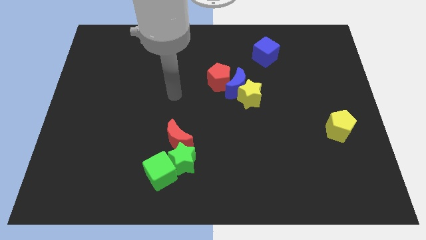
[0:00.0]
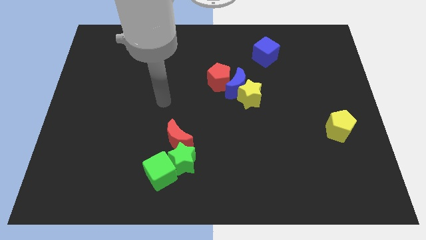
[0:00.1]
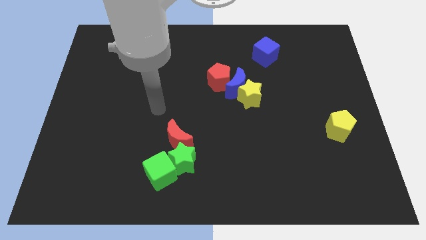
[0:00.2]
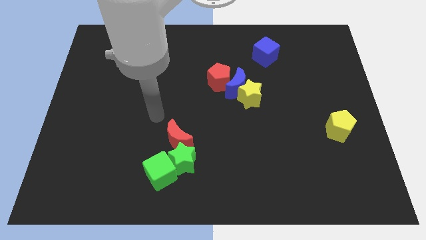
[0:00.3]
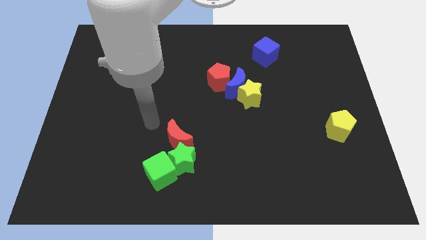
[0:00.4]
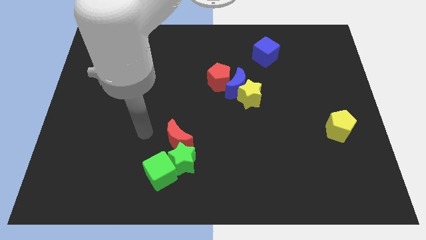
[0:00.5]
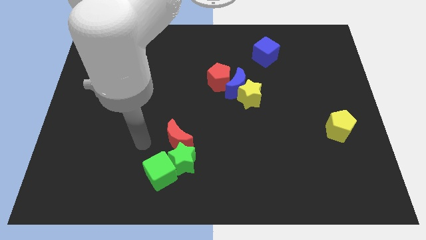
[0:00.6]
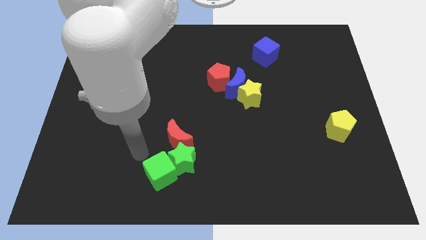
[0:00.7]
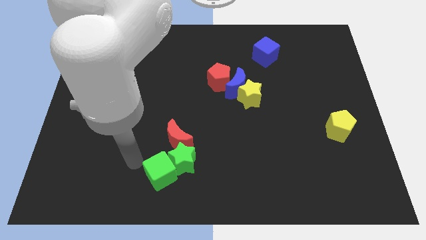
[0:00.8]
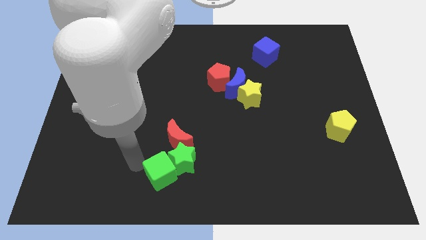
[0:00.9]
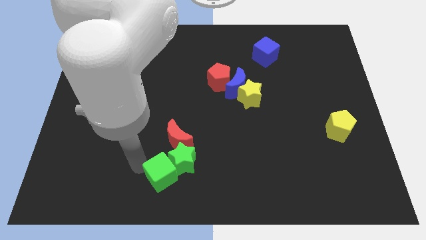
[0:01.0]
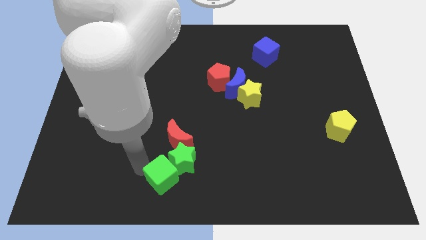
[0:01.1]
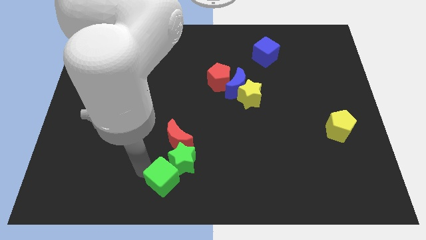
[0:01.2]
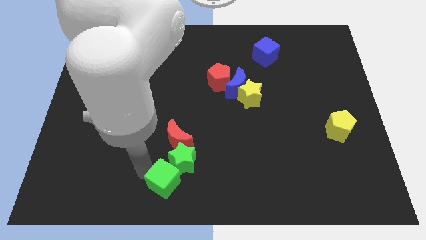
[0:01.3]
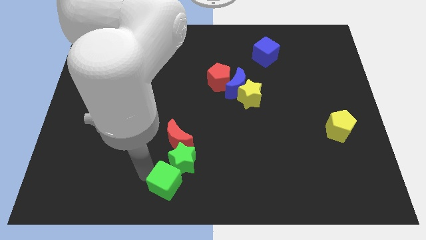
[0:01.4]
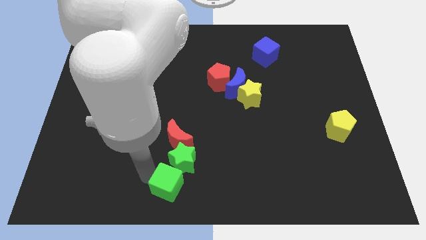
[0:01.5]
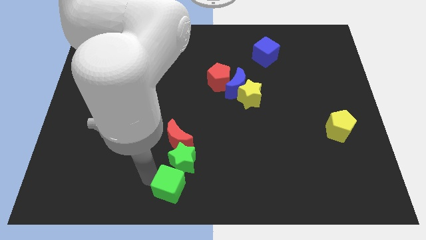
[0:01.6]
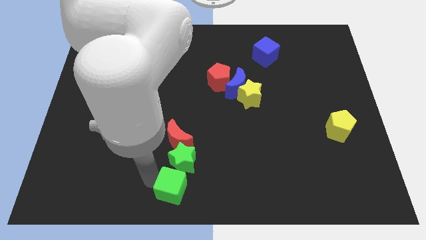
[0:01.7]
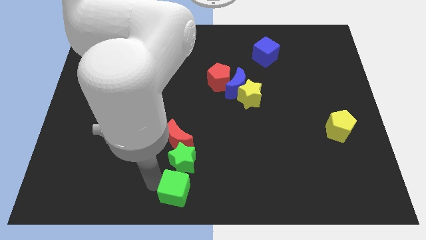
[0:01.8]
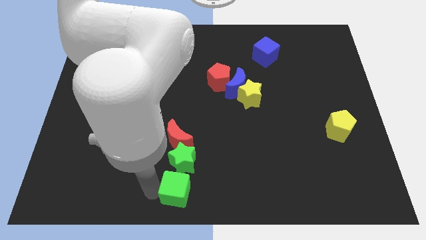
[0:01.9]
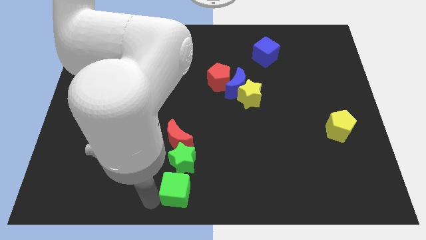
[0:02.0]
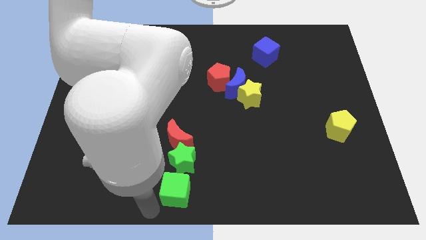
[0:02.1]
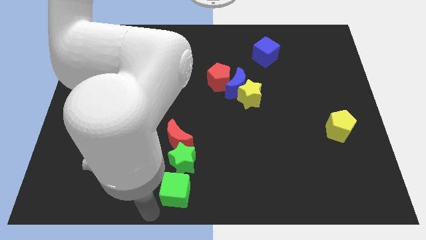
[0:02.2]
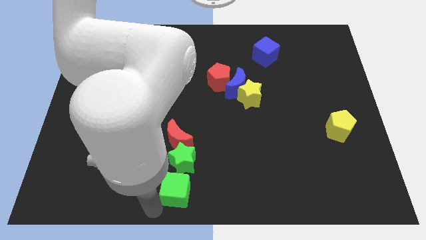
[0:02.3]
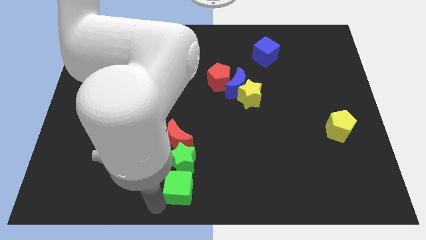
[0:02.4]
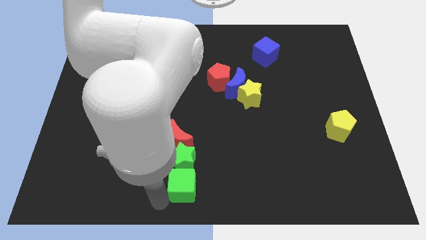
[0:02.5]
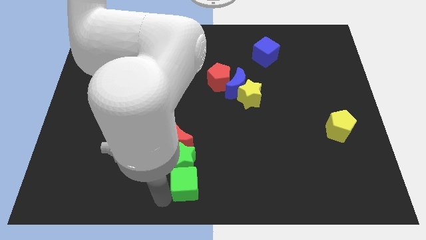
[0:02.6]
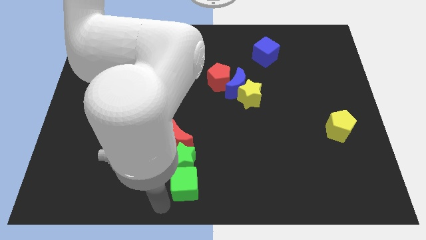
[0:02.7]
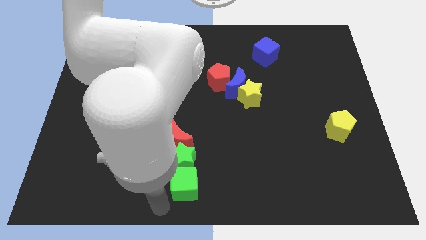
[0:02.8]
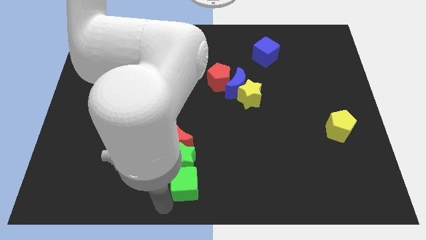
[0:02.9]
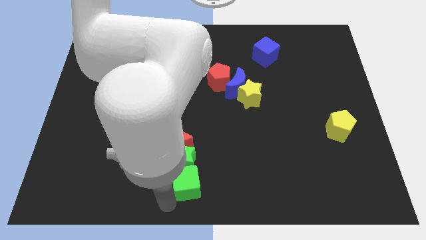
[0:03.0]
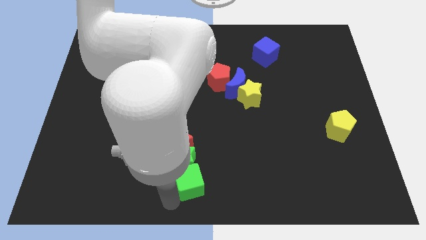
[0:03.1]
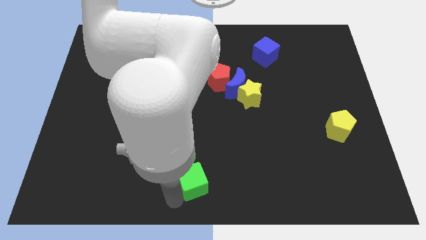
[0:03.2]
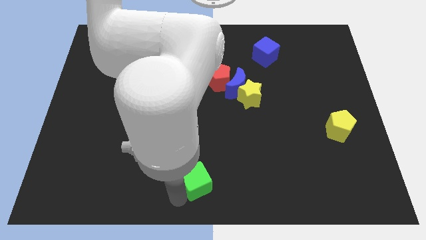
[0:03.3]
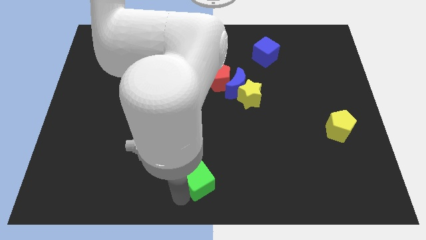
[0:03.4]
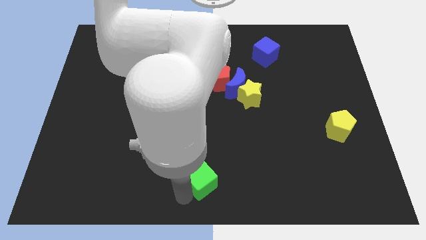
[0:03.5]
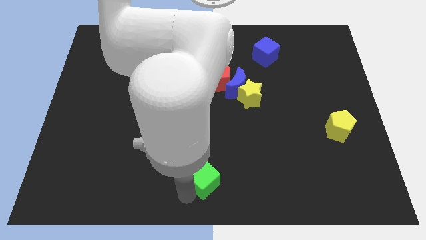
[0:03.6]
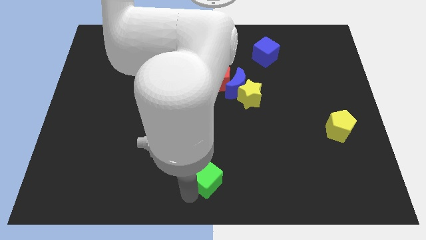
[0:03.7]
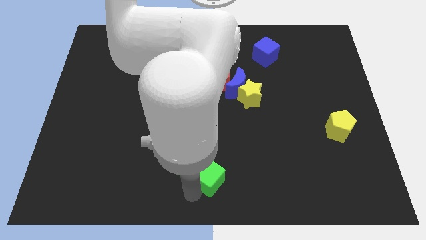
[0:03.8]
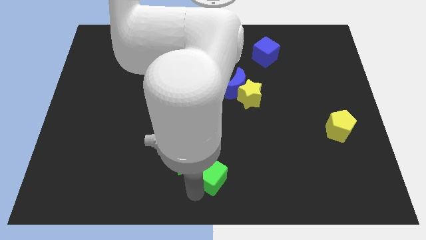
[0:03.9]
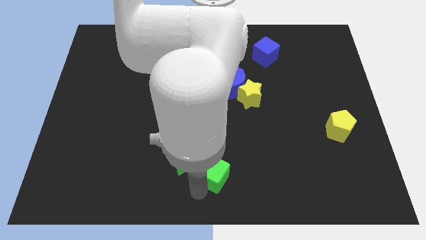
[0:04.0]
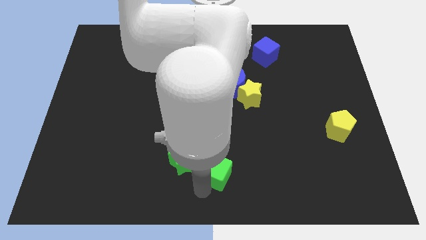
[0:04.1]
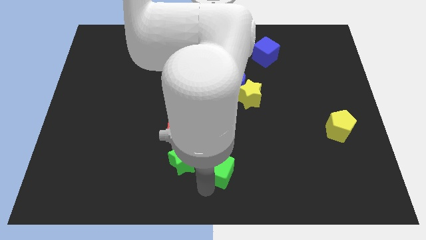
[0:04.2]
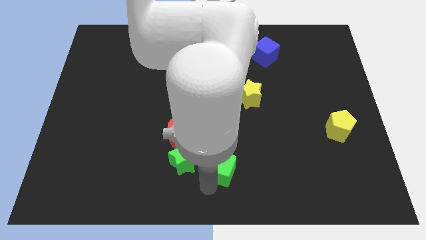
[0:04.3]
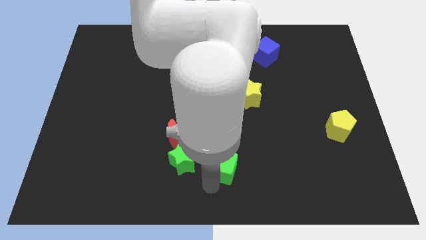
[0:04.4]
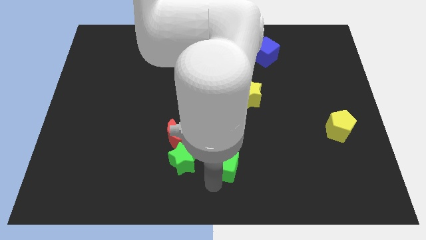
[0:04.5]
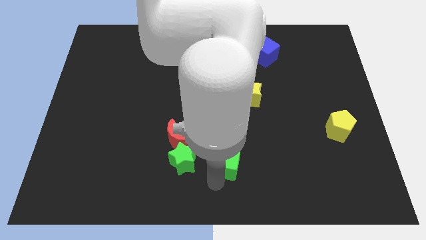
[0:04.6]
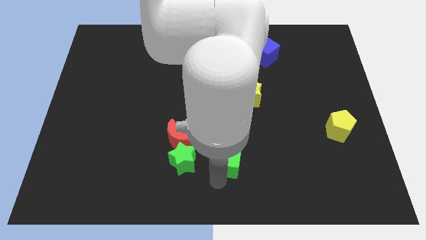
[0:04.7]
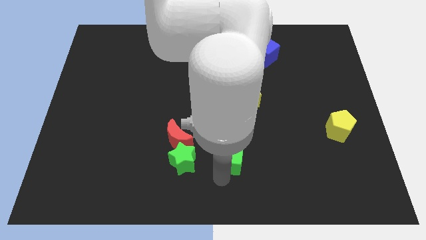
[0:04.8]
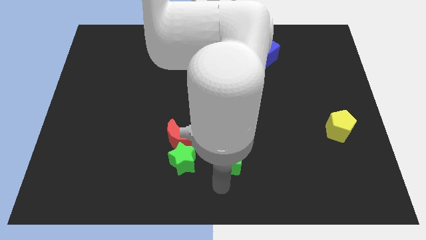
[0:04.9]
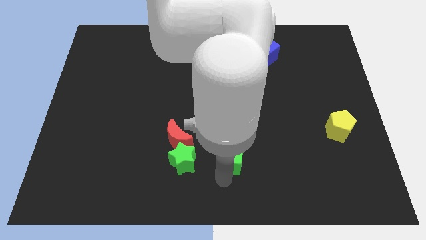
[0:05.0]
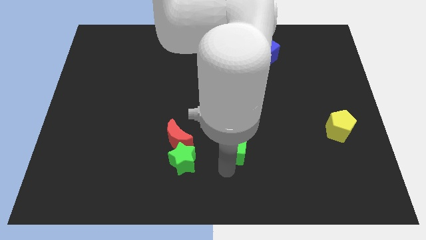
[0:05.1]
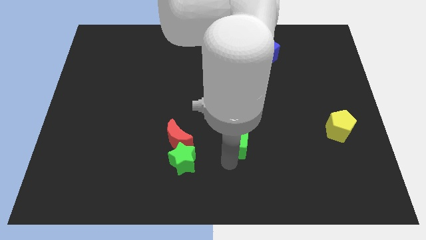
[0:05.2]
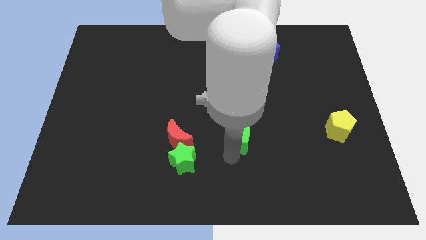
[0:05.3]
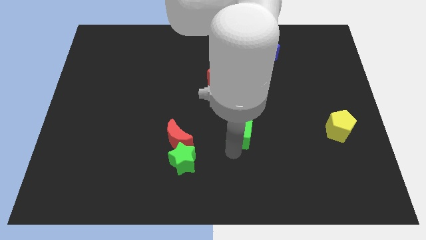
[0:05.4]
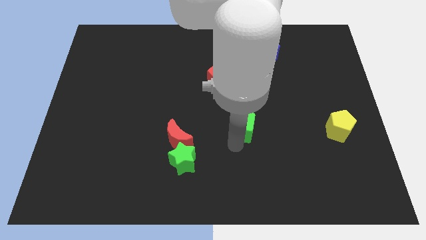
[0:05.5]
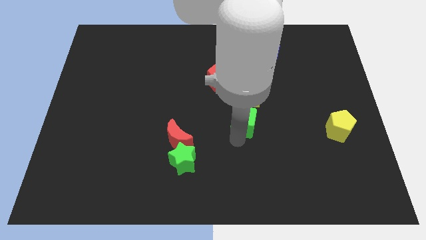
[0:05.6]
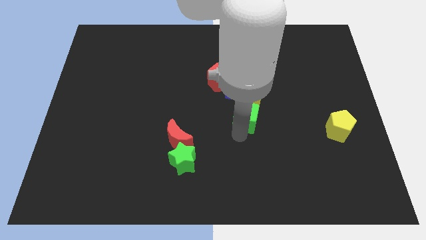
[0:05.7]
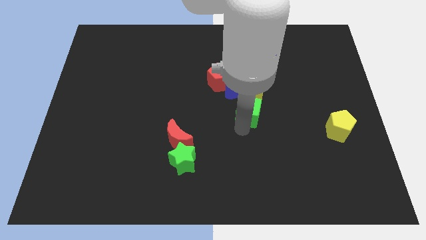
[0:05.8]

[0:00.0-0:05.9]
move the green cube close to the yellow star

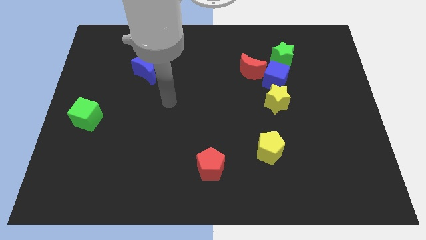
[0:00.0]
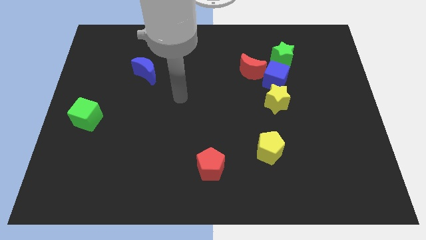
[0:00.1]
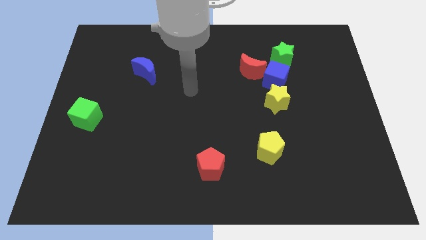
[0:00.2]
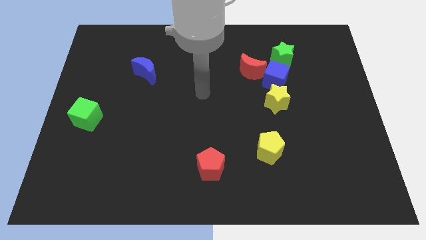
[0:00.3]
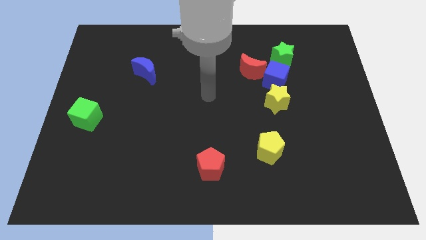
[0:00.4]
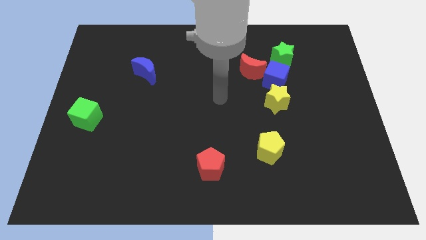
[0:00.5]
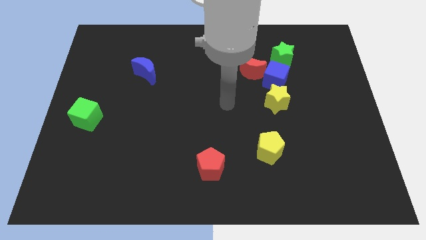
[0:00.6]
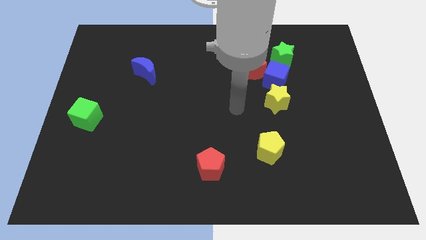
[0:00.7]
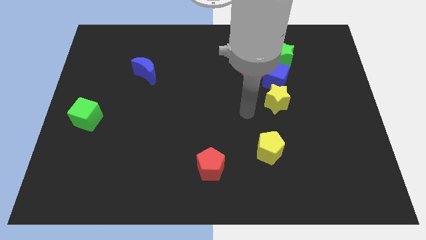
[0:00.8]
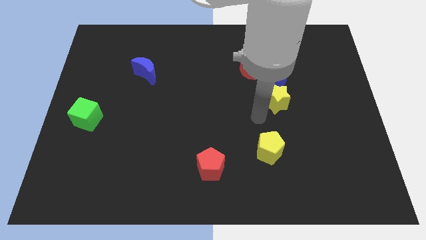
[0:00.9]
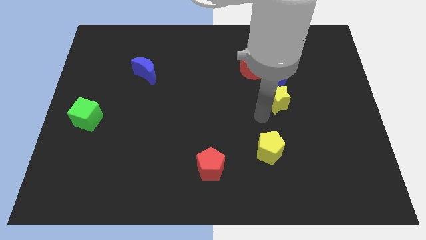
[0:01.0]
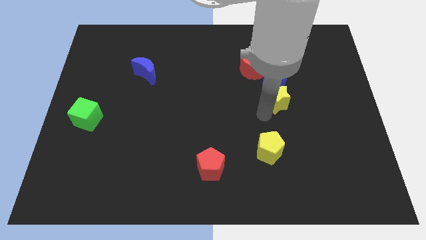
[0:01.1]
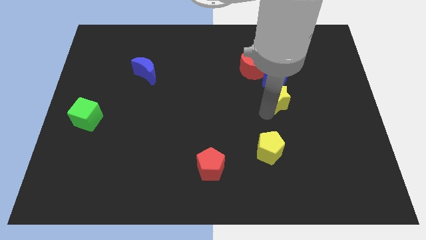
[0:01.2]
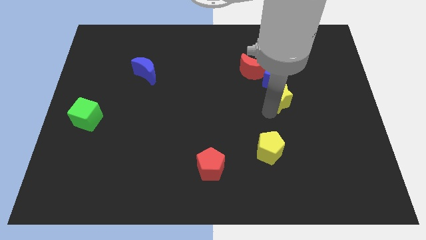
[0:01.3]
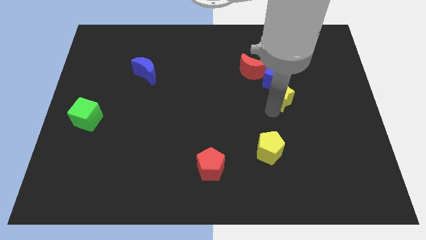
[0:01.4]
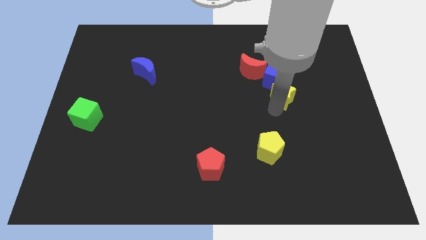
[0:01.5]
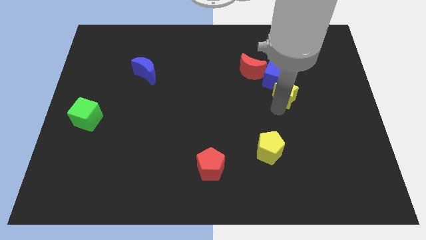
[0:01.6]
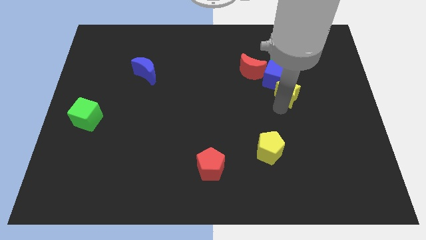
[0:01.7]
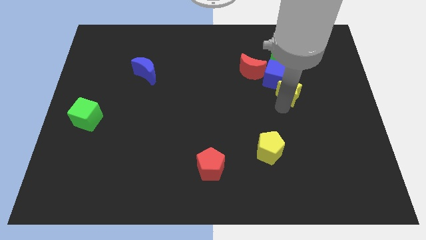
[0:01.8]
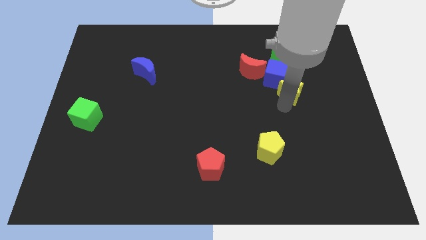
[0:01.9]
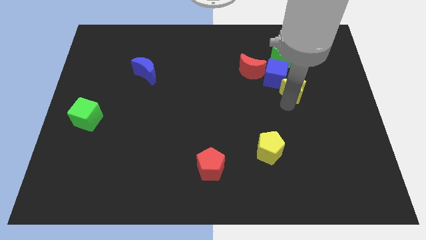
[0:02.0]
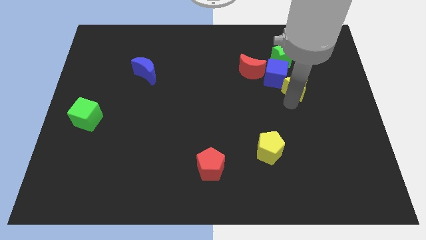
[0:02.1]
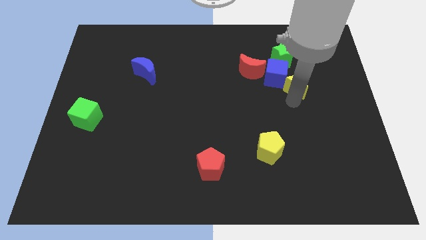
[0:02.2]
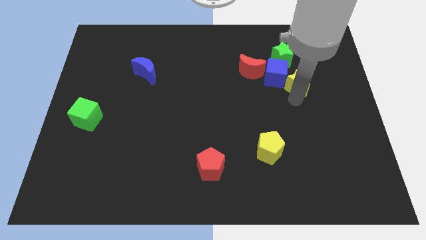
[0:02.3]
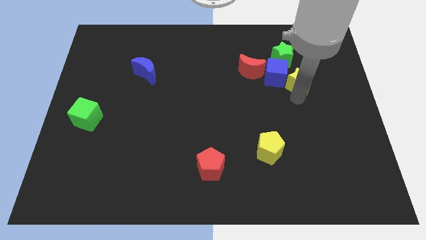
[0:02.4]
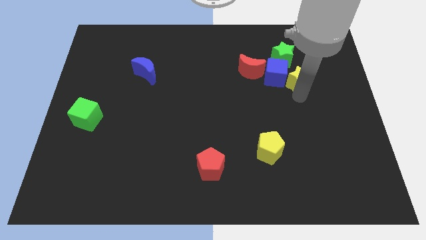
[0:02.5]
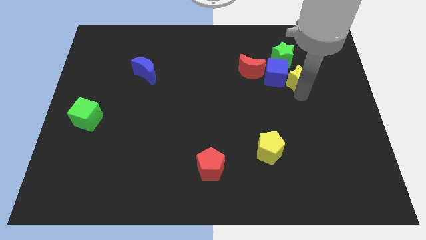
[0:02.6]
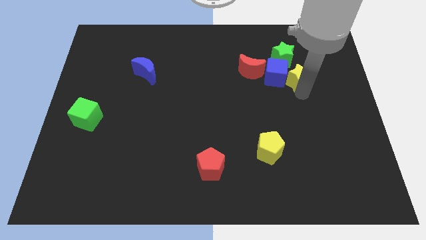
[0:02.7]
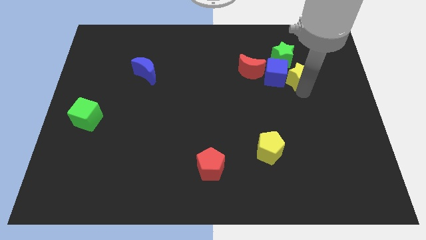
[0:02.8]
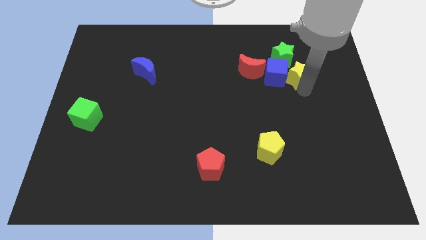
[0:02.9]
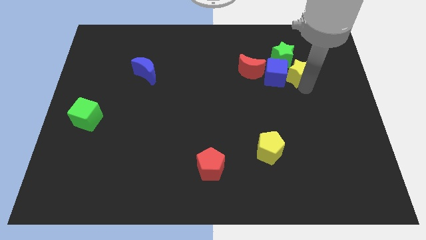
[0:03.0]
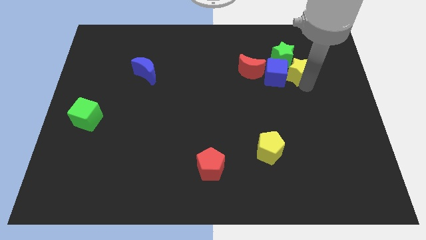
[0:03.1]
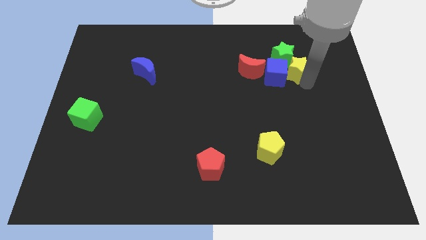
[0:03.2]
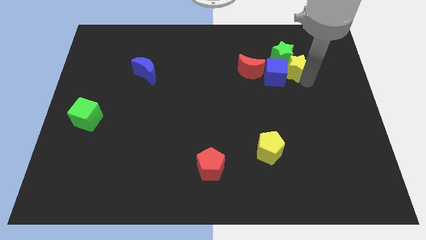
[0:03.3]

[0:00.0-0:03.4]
push the yellow star towards the green star
